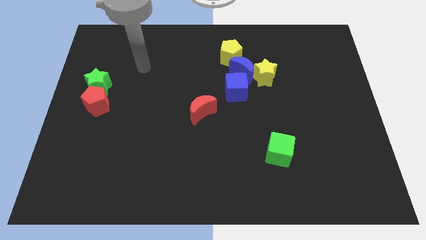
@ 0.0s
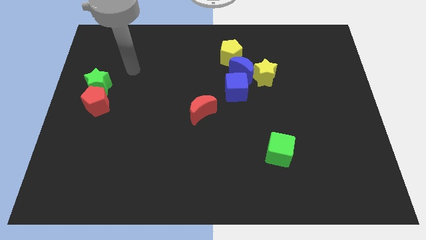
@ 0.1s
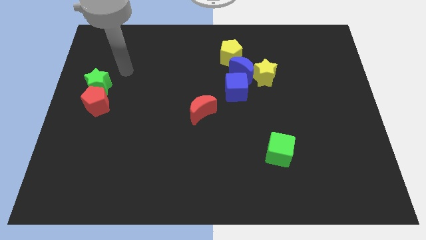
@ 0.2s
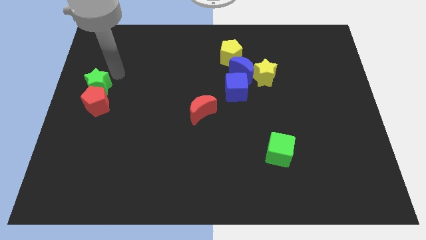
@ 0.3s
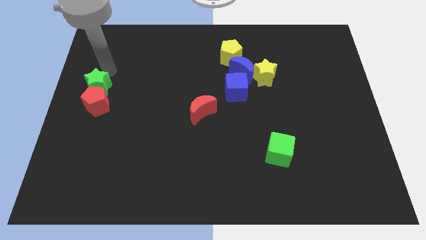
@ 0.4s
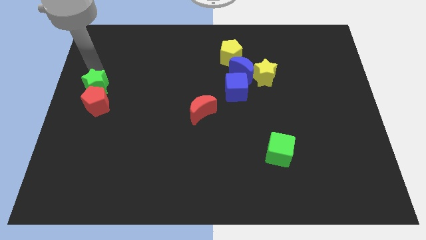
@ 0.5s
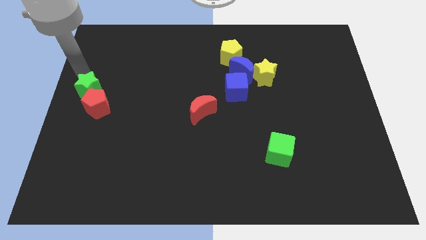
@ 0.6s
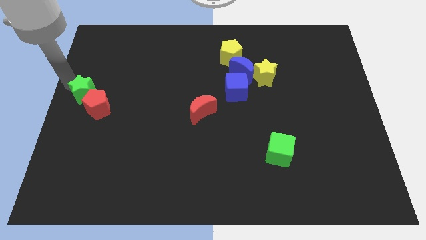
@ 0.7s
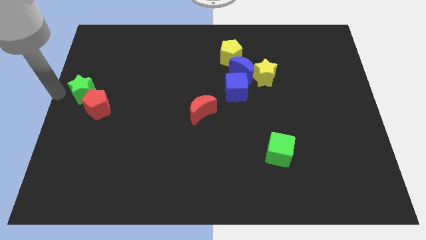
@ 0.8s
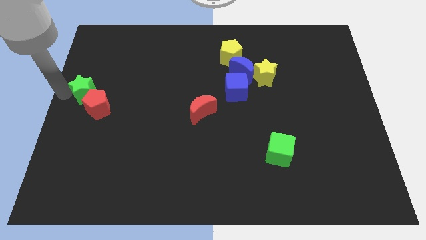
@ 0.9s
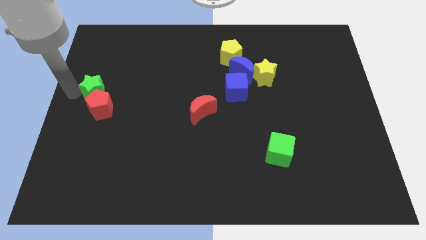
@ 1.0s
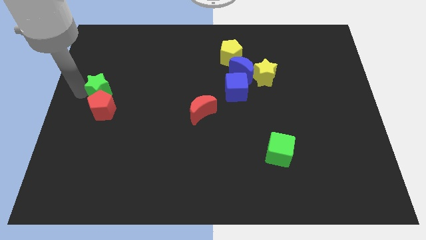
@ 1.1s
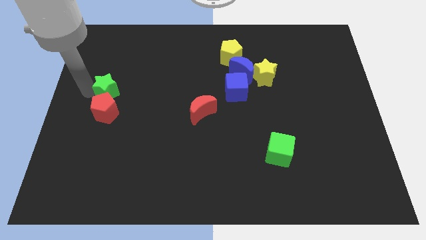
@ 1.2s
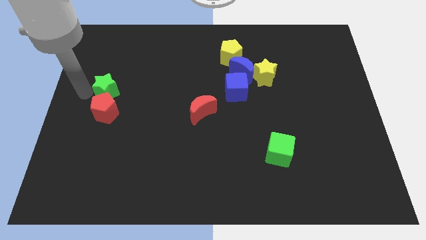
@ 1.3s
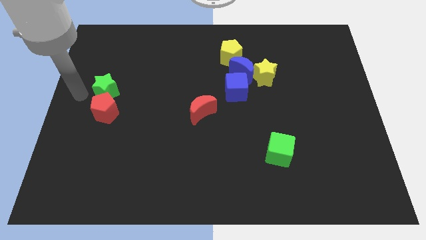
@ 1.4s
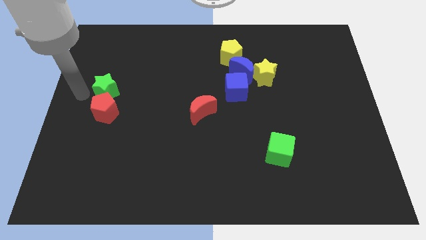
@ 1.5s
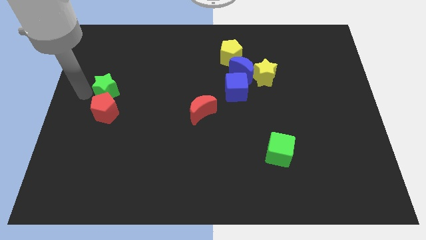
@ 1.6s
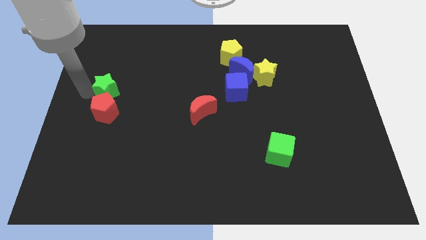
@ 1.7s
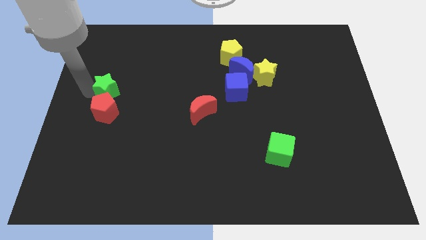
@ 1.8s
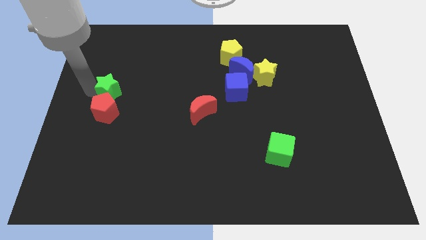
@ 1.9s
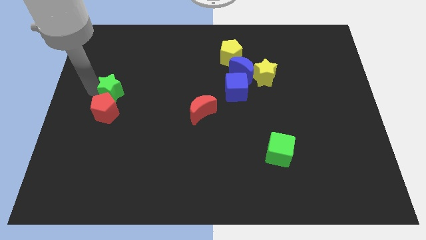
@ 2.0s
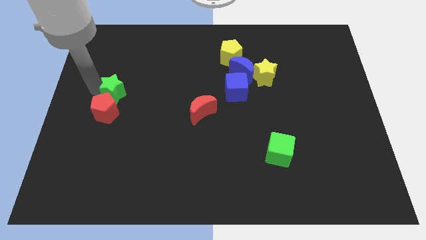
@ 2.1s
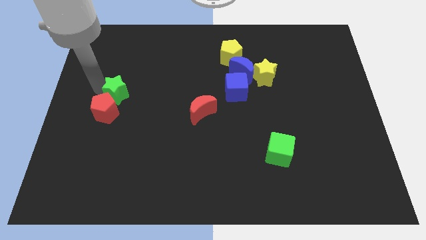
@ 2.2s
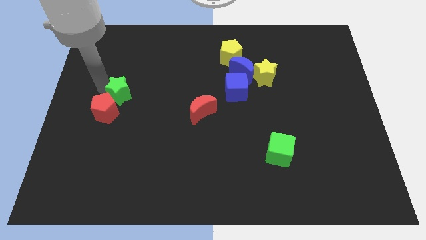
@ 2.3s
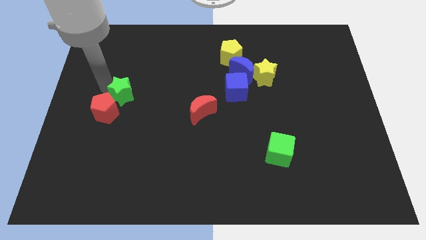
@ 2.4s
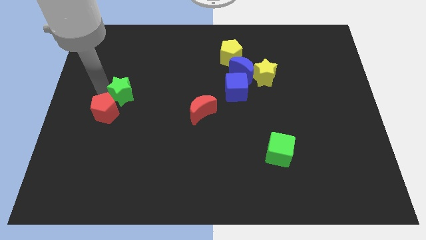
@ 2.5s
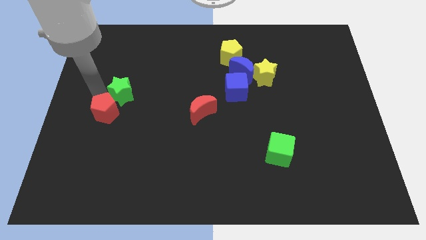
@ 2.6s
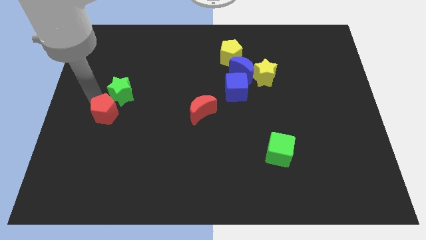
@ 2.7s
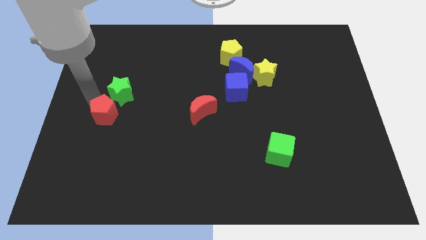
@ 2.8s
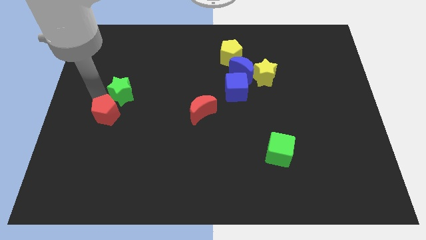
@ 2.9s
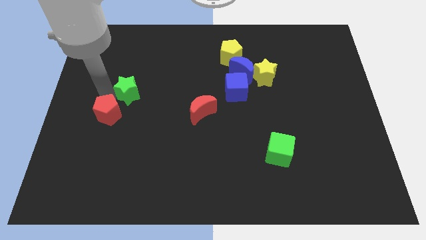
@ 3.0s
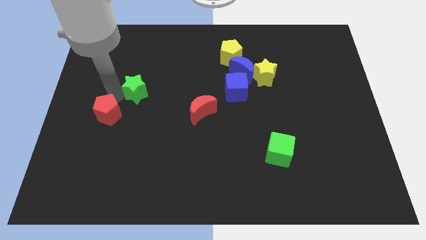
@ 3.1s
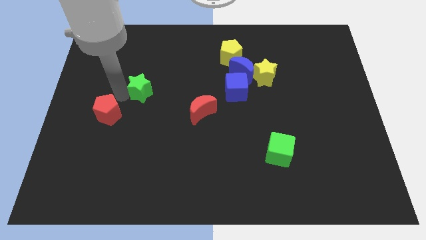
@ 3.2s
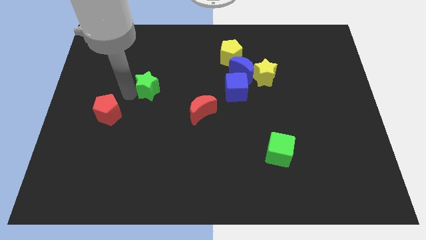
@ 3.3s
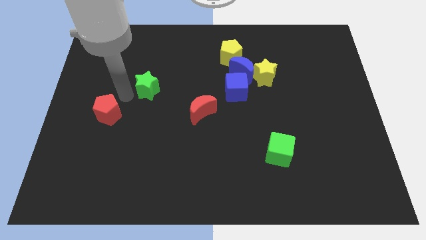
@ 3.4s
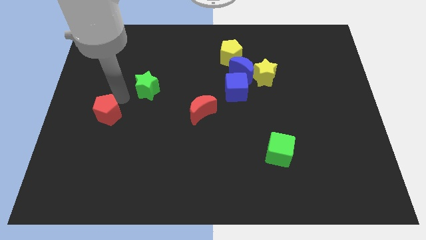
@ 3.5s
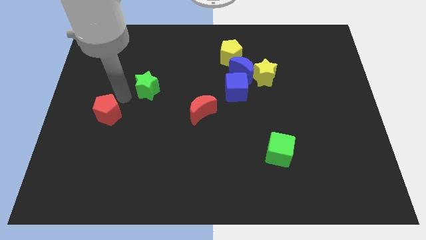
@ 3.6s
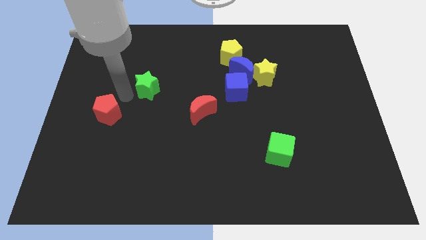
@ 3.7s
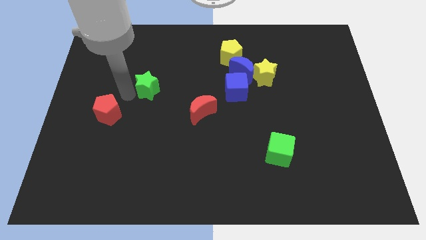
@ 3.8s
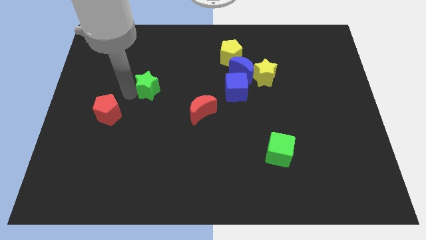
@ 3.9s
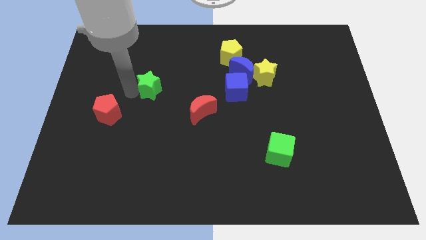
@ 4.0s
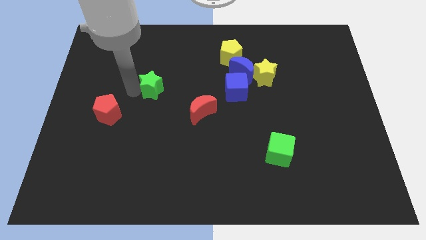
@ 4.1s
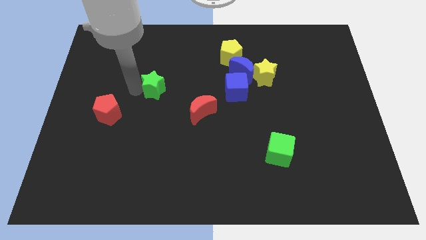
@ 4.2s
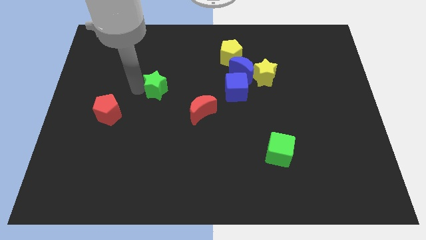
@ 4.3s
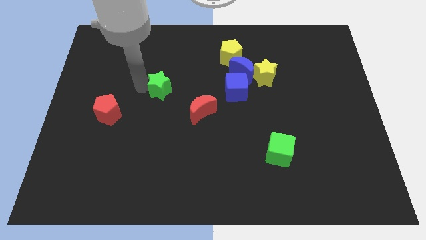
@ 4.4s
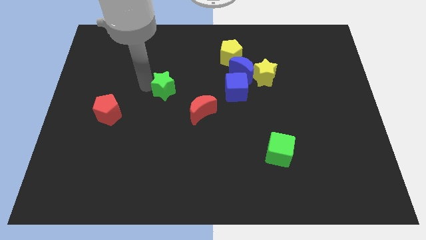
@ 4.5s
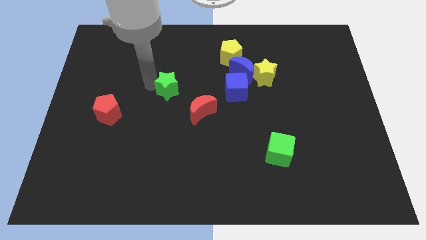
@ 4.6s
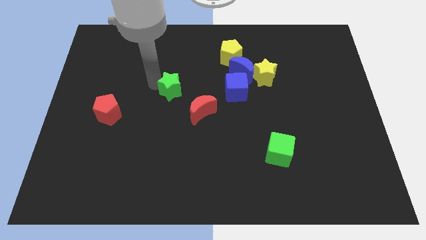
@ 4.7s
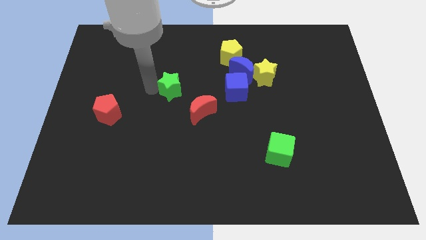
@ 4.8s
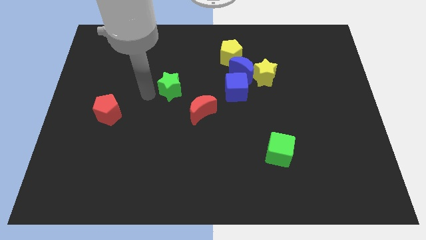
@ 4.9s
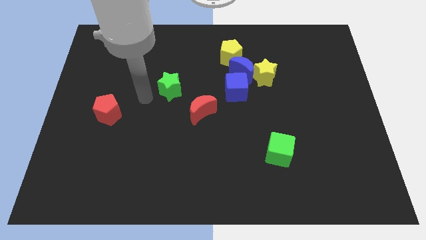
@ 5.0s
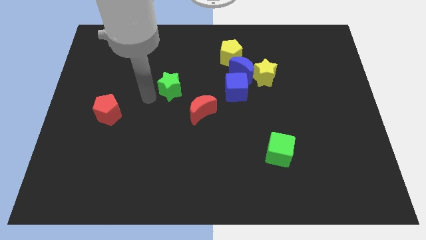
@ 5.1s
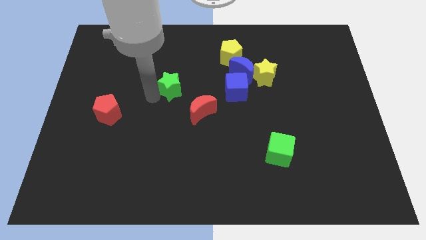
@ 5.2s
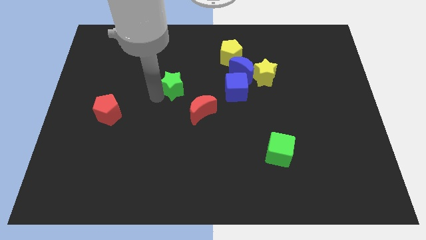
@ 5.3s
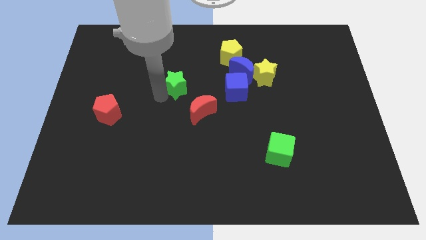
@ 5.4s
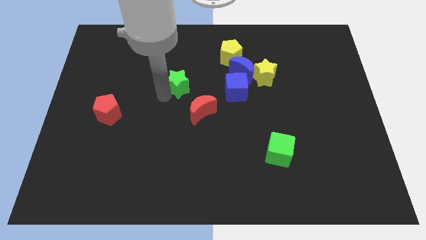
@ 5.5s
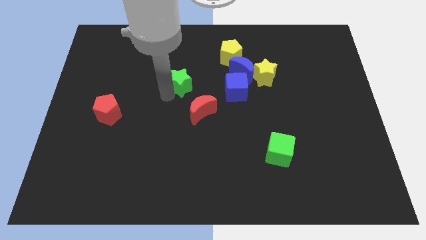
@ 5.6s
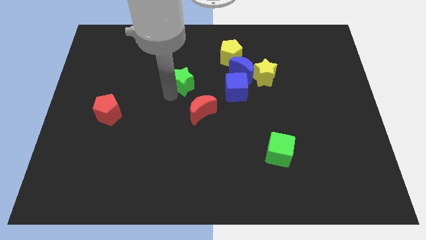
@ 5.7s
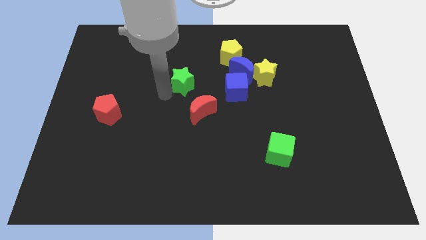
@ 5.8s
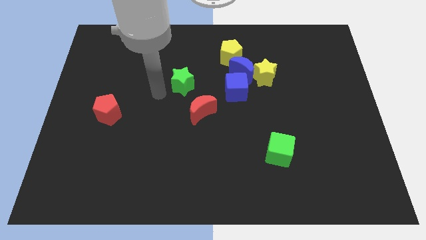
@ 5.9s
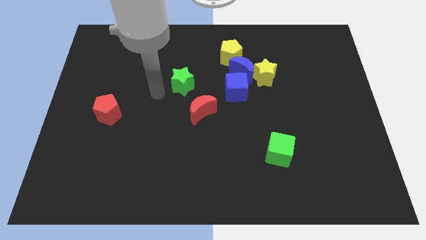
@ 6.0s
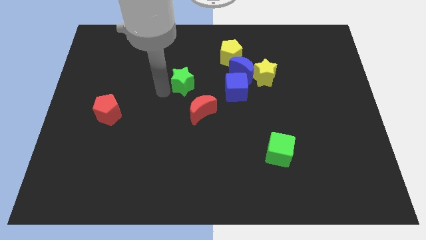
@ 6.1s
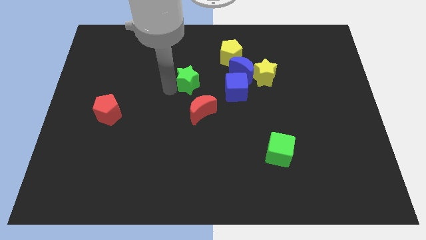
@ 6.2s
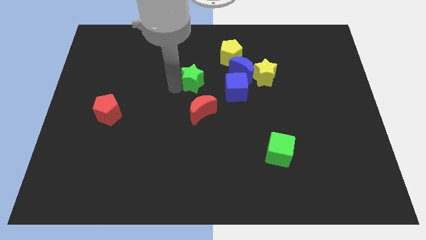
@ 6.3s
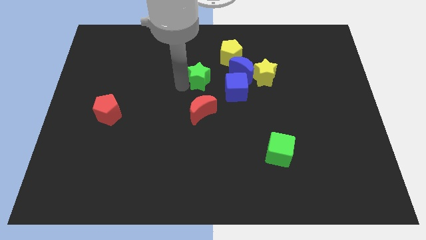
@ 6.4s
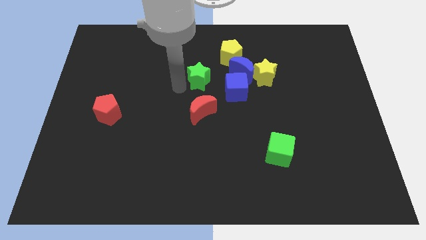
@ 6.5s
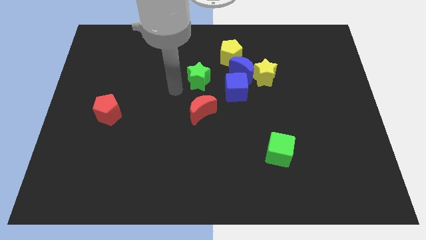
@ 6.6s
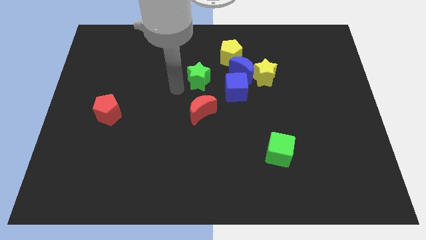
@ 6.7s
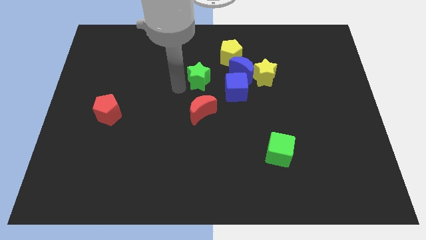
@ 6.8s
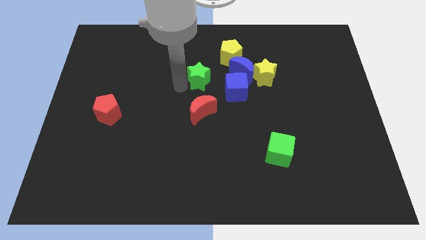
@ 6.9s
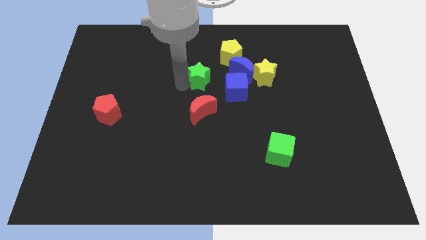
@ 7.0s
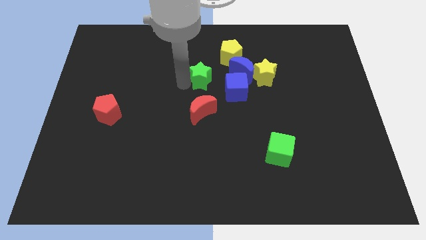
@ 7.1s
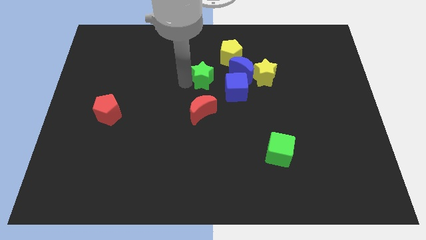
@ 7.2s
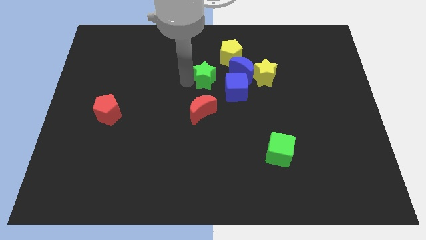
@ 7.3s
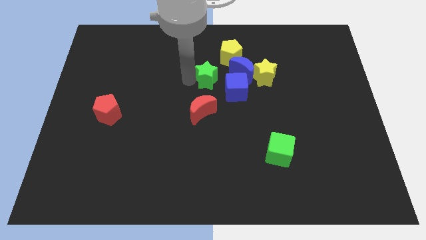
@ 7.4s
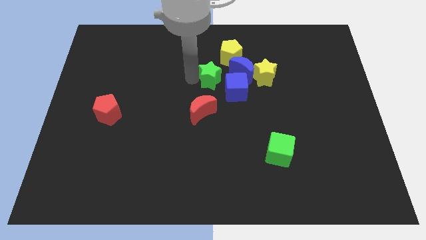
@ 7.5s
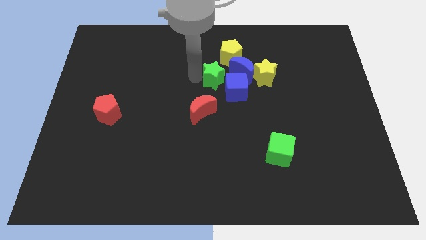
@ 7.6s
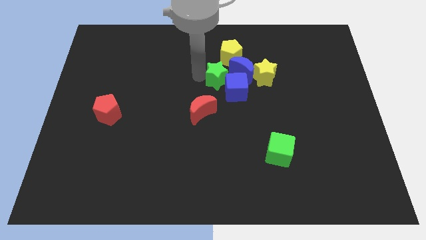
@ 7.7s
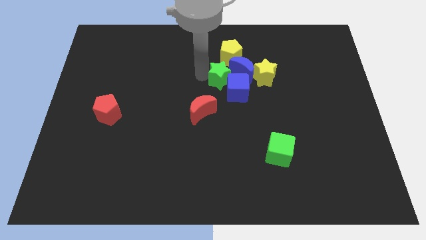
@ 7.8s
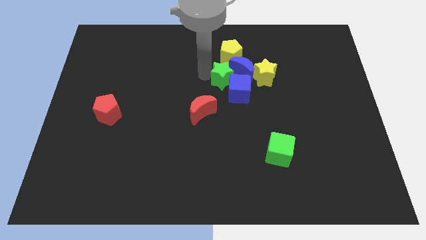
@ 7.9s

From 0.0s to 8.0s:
put the green star to the blue moon
